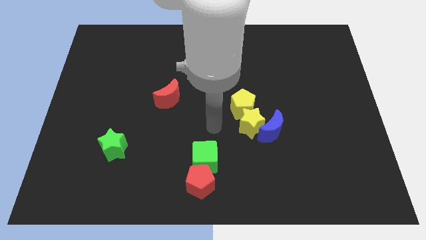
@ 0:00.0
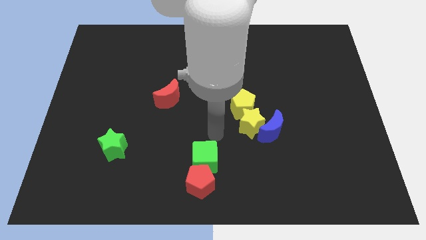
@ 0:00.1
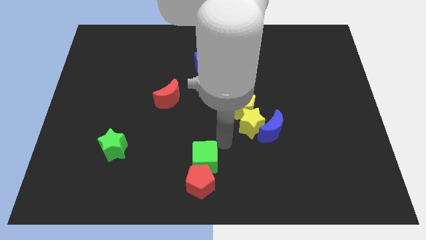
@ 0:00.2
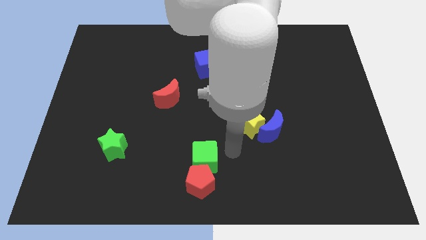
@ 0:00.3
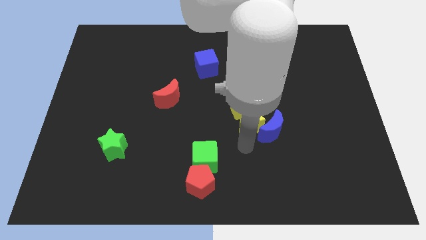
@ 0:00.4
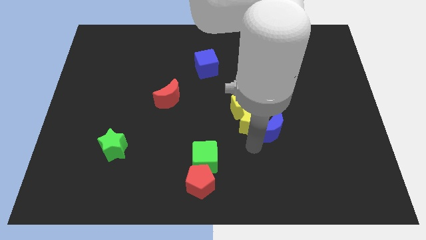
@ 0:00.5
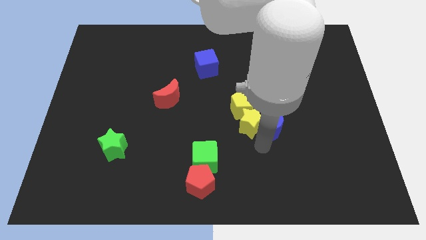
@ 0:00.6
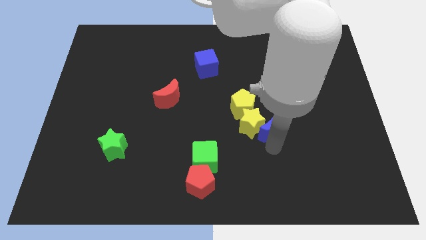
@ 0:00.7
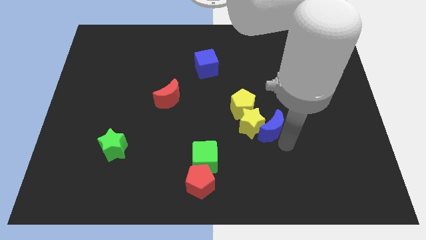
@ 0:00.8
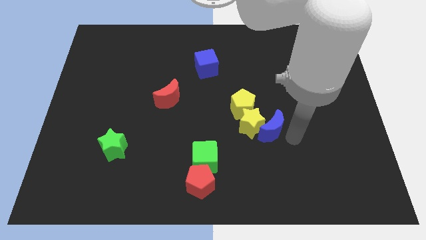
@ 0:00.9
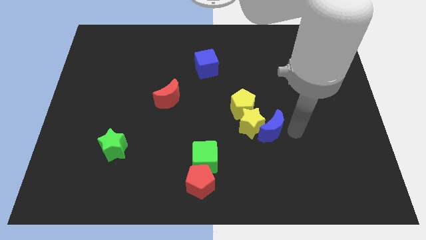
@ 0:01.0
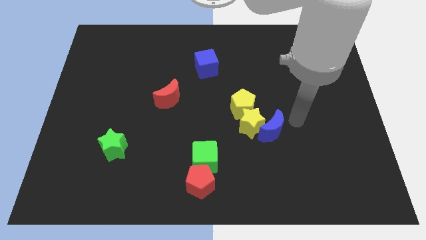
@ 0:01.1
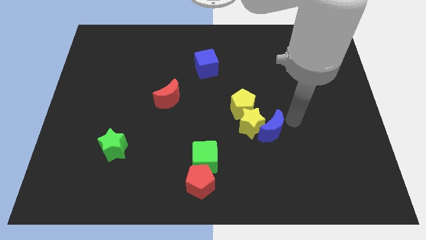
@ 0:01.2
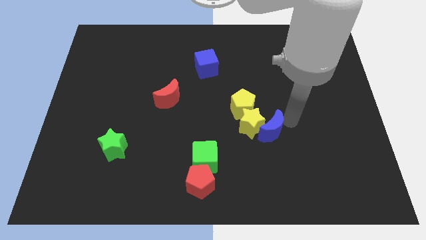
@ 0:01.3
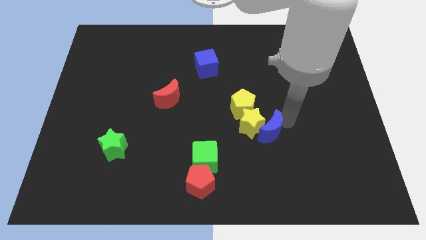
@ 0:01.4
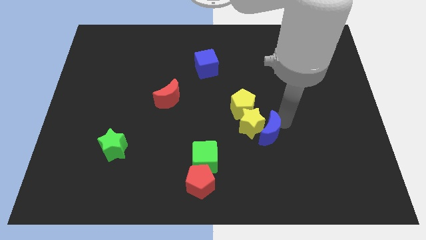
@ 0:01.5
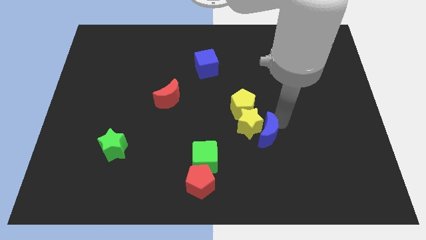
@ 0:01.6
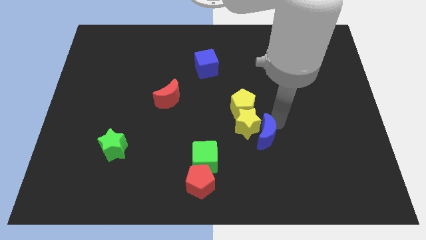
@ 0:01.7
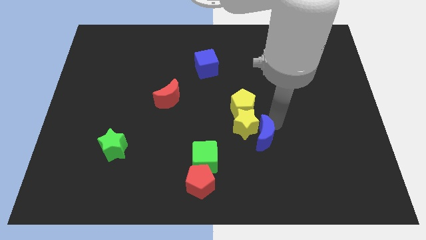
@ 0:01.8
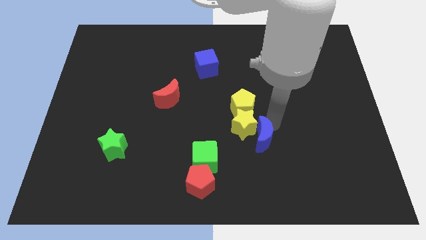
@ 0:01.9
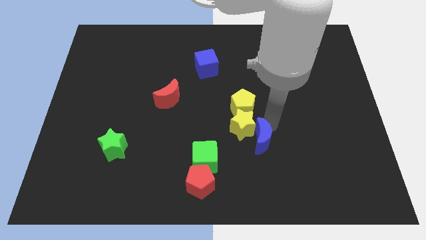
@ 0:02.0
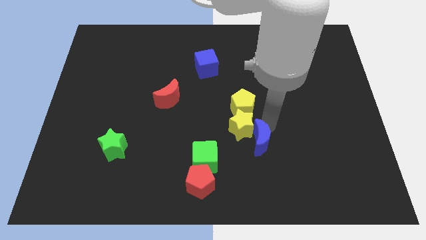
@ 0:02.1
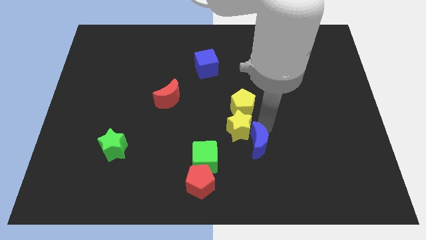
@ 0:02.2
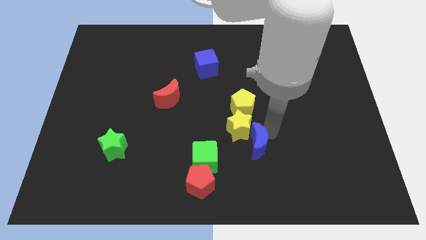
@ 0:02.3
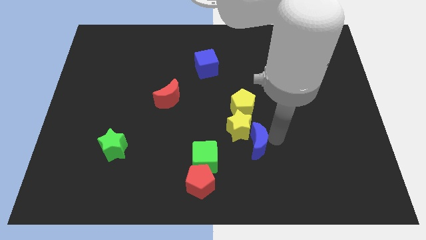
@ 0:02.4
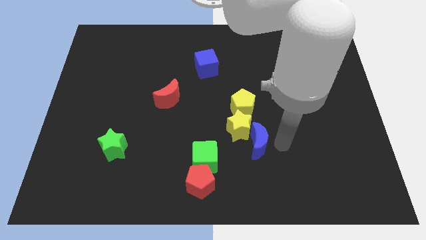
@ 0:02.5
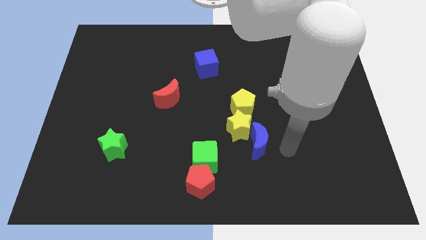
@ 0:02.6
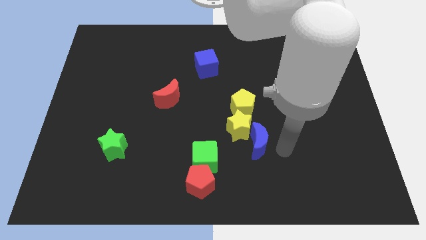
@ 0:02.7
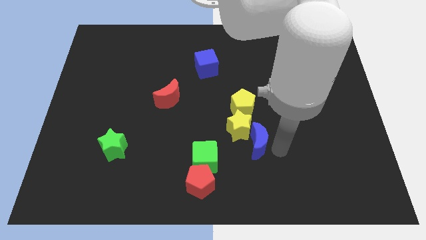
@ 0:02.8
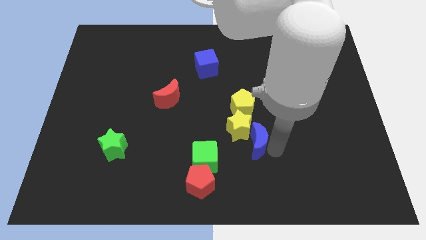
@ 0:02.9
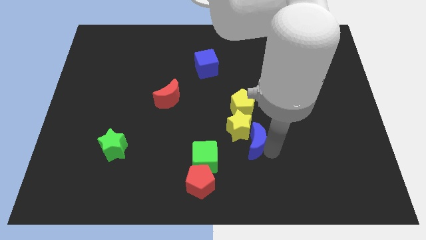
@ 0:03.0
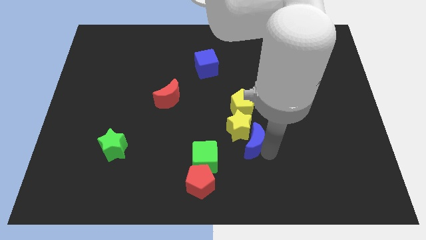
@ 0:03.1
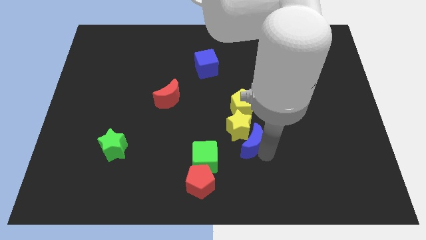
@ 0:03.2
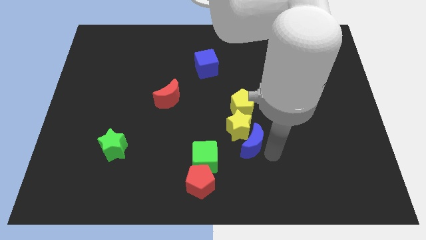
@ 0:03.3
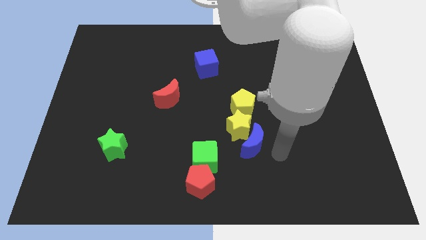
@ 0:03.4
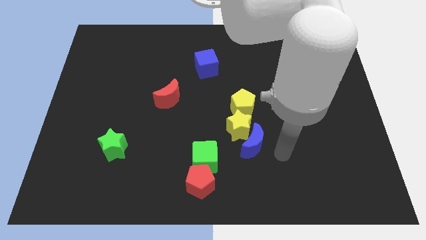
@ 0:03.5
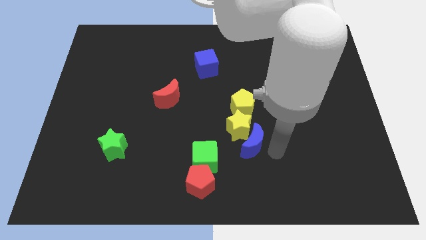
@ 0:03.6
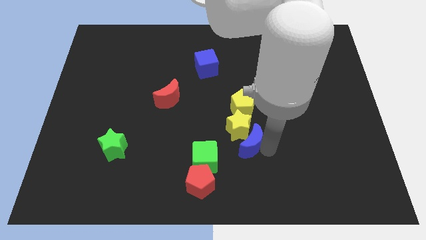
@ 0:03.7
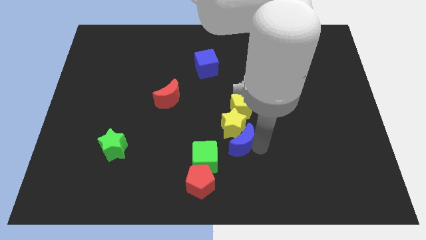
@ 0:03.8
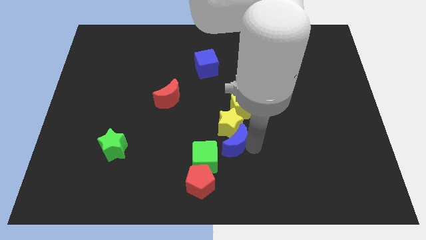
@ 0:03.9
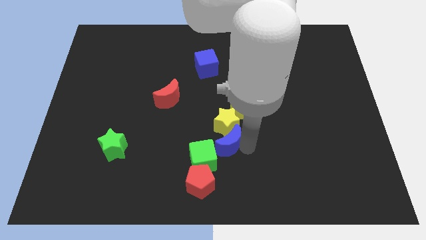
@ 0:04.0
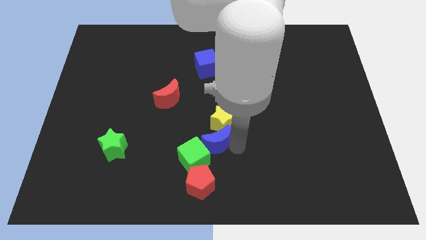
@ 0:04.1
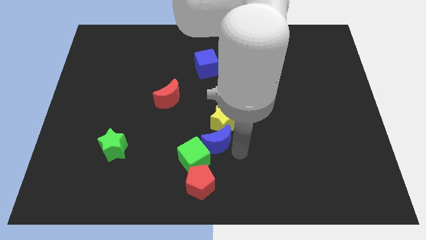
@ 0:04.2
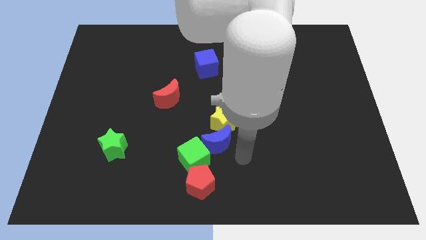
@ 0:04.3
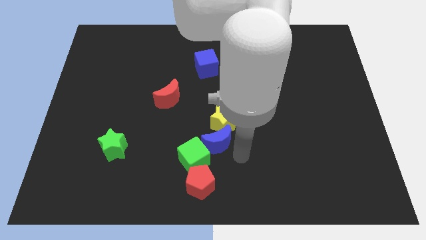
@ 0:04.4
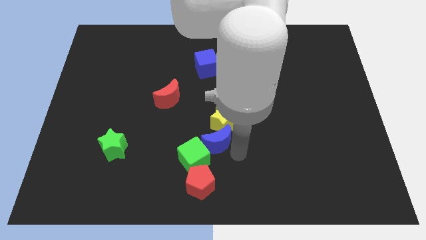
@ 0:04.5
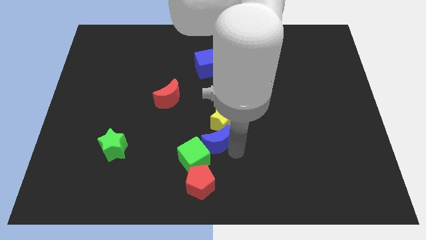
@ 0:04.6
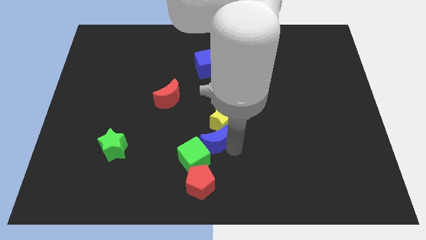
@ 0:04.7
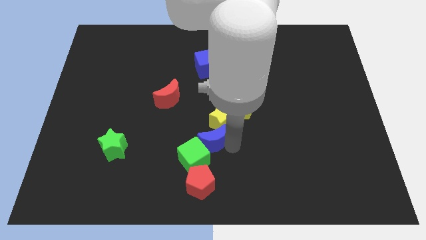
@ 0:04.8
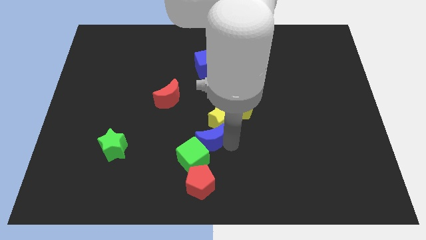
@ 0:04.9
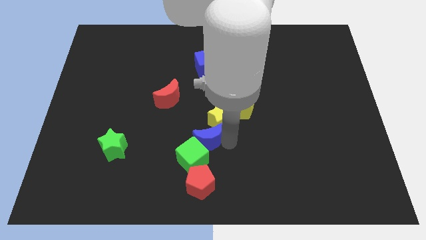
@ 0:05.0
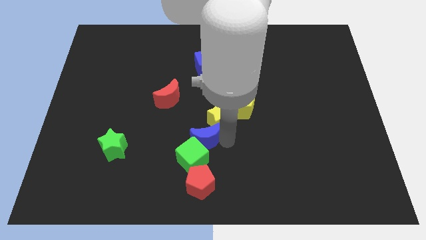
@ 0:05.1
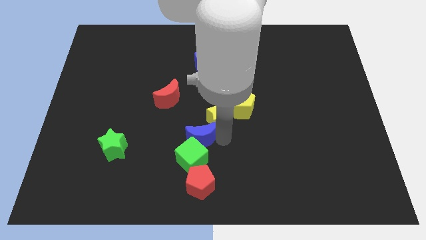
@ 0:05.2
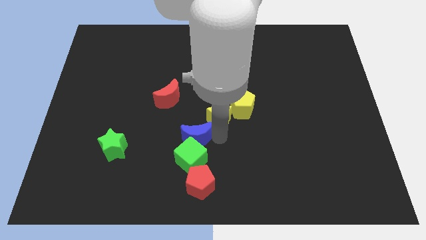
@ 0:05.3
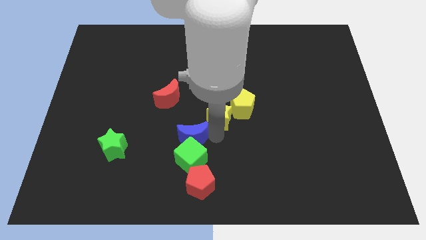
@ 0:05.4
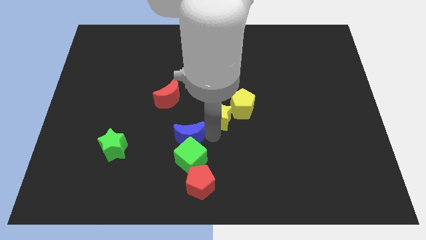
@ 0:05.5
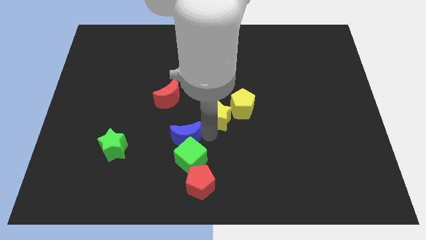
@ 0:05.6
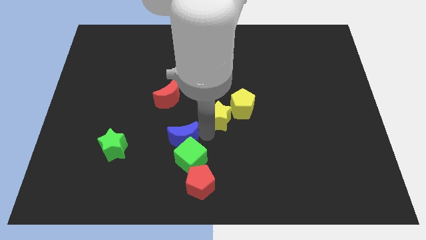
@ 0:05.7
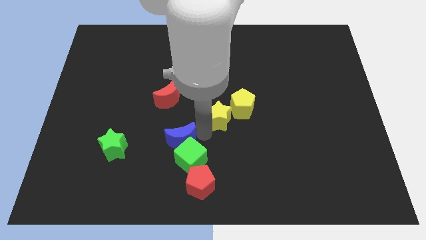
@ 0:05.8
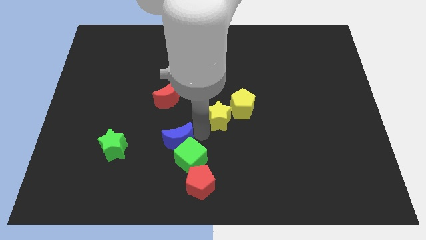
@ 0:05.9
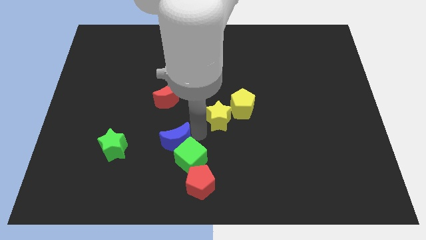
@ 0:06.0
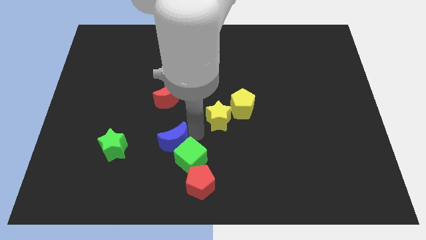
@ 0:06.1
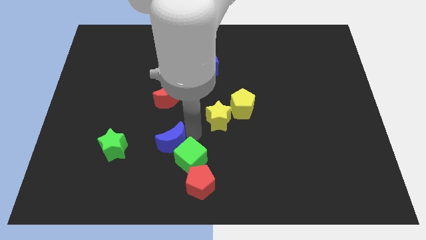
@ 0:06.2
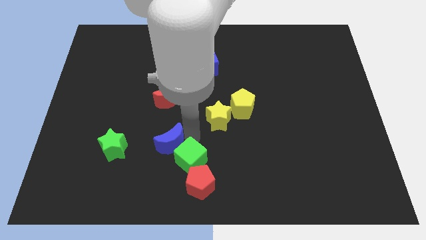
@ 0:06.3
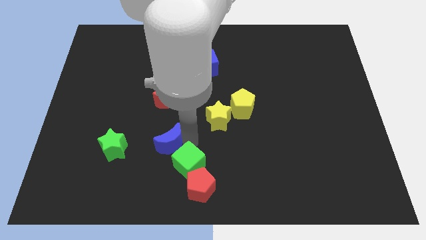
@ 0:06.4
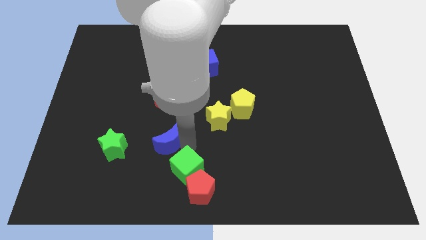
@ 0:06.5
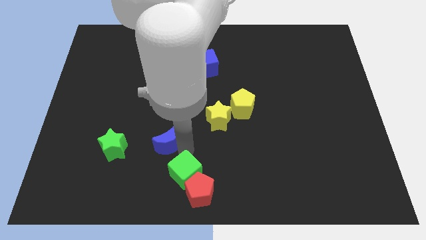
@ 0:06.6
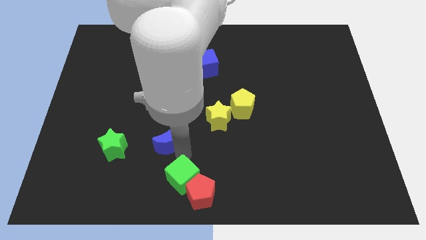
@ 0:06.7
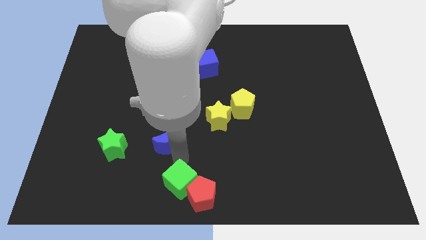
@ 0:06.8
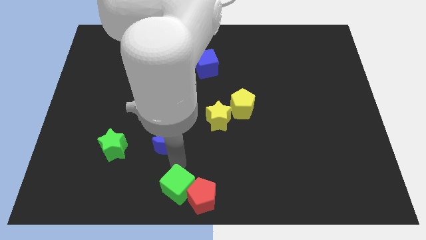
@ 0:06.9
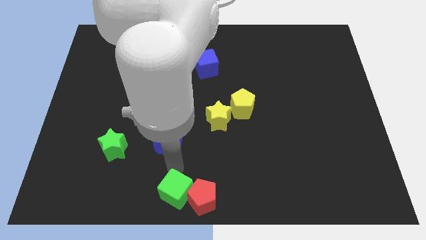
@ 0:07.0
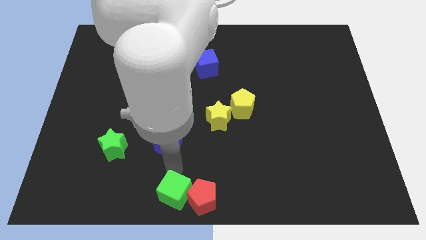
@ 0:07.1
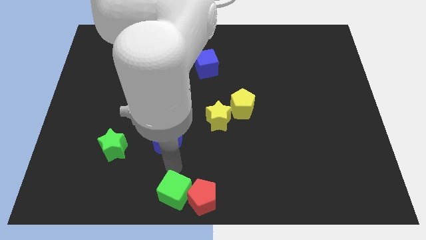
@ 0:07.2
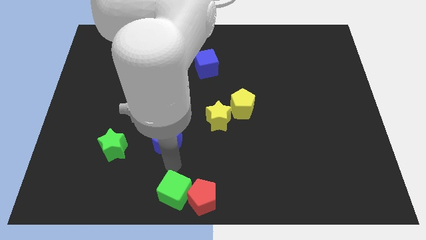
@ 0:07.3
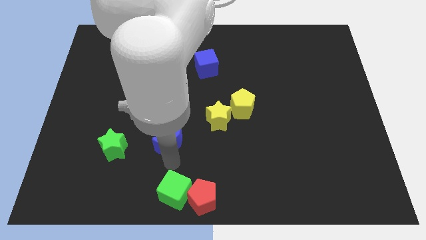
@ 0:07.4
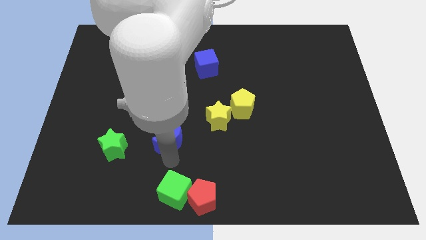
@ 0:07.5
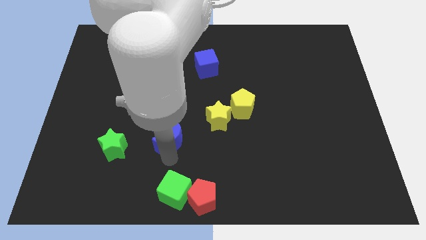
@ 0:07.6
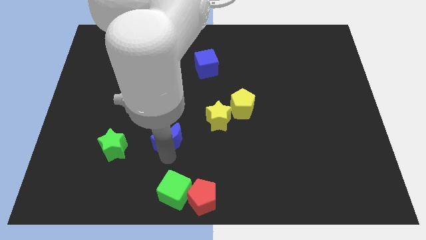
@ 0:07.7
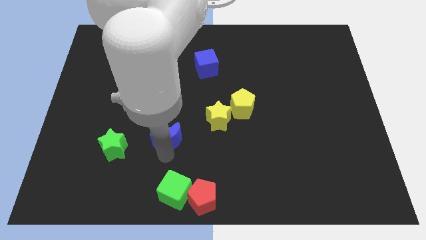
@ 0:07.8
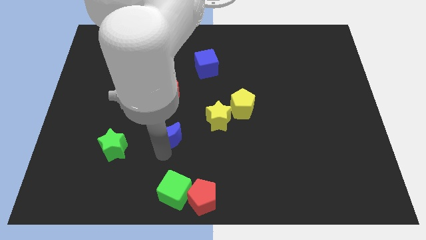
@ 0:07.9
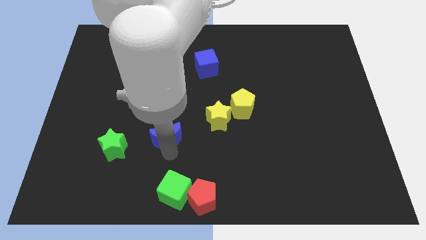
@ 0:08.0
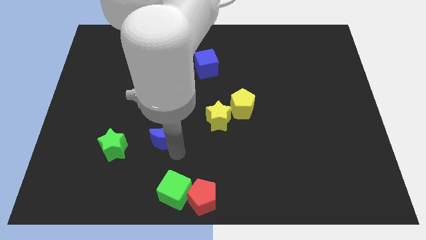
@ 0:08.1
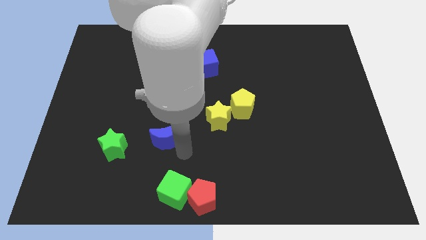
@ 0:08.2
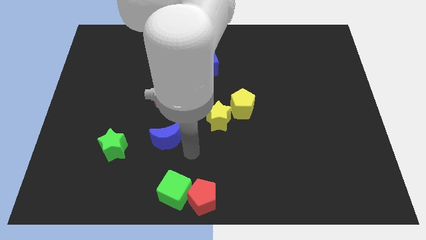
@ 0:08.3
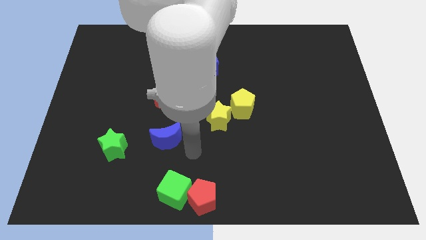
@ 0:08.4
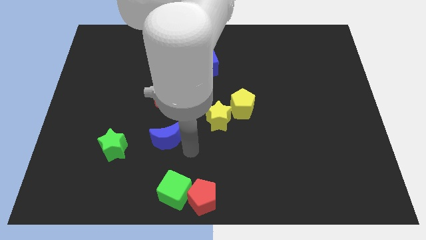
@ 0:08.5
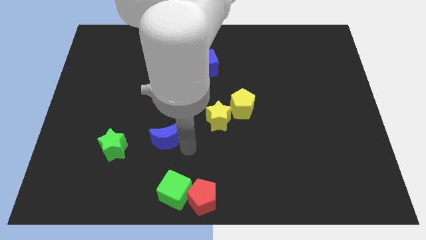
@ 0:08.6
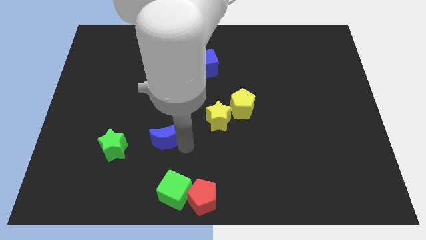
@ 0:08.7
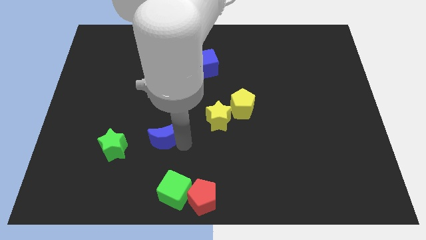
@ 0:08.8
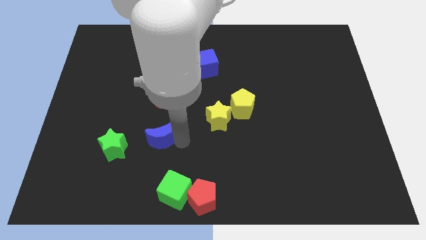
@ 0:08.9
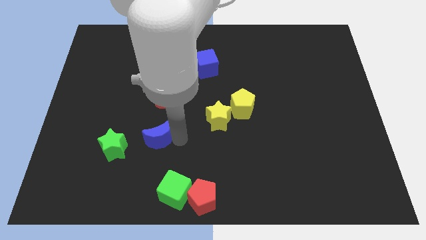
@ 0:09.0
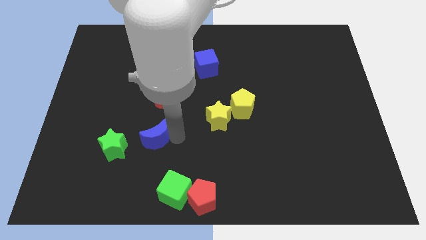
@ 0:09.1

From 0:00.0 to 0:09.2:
put the blue moon to the top right side of the green star
